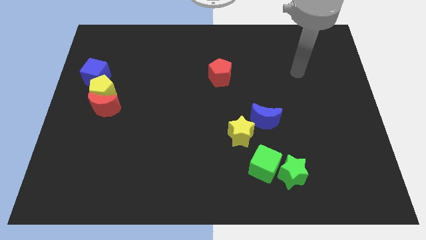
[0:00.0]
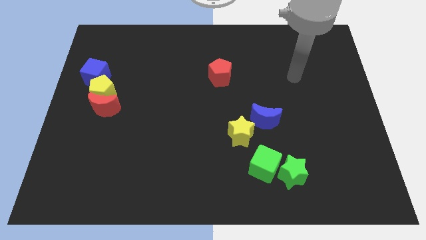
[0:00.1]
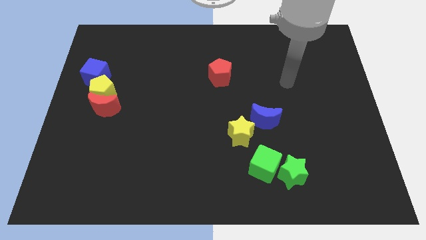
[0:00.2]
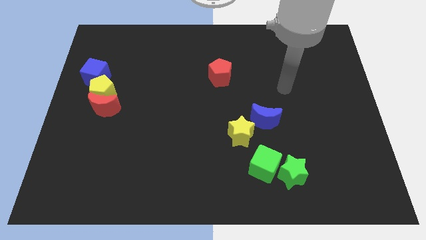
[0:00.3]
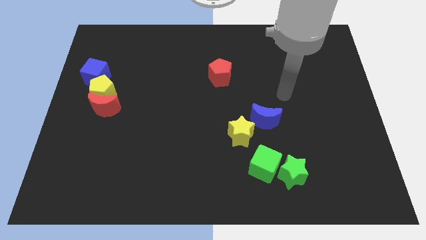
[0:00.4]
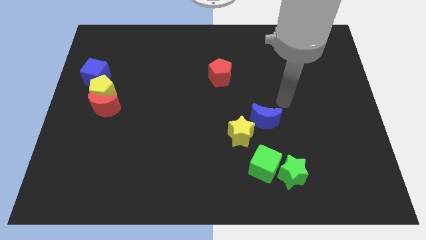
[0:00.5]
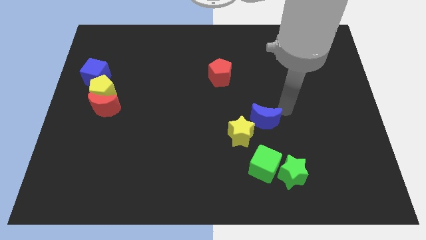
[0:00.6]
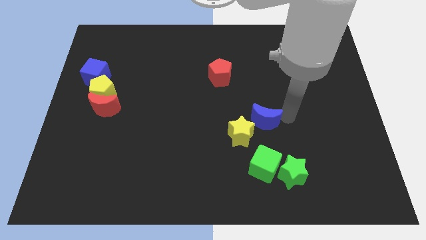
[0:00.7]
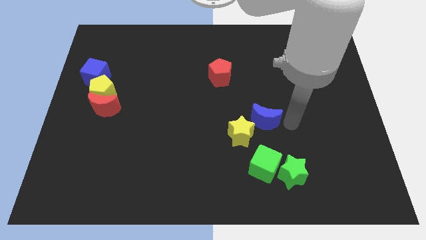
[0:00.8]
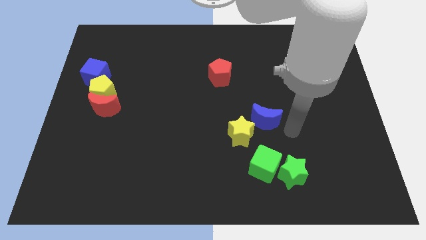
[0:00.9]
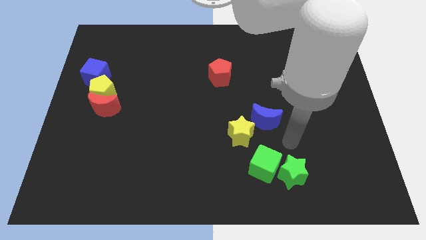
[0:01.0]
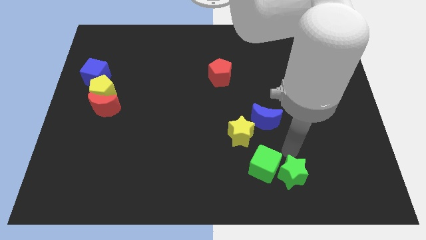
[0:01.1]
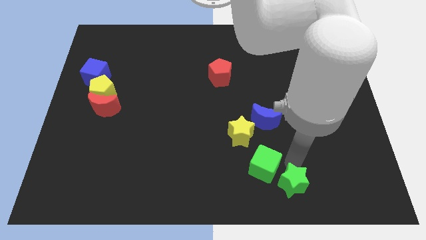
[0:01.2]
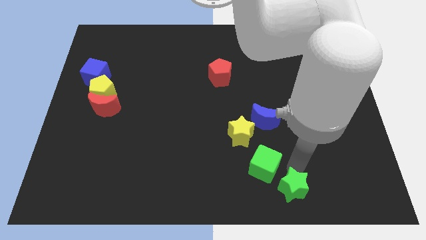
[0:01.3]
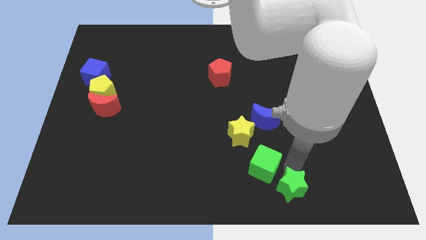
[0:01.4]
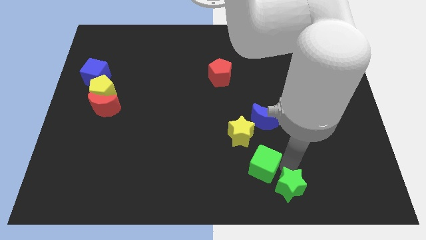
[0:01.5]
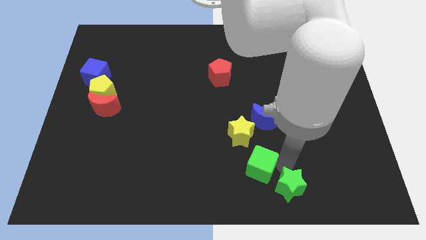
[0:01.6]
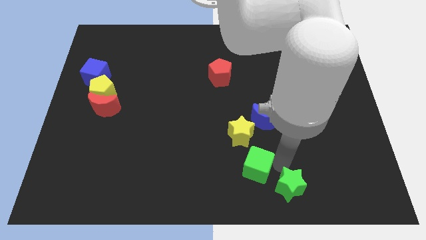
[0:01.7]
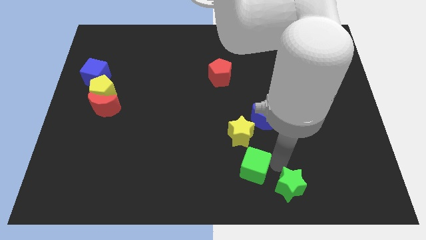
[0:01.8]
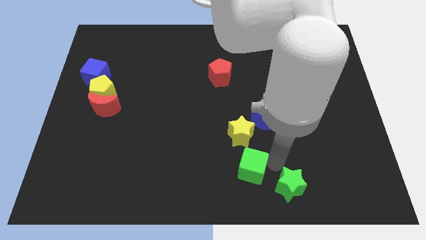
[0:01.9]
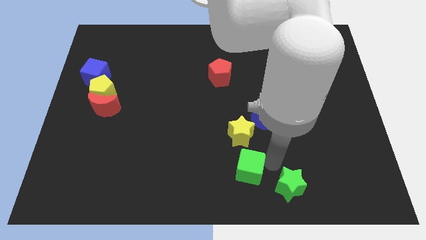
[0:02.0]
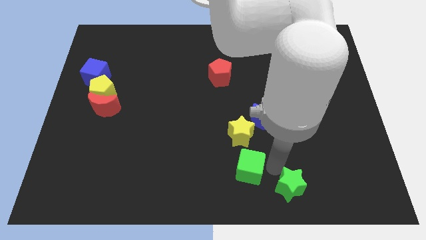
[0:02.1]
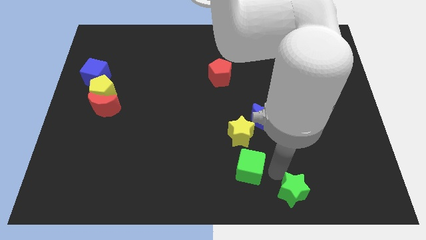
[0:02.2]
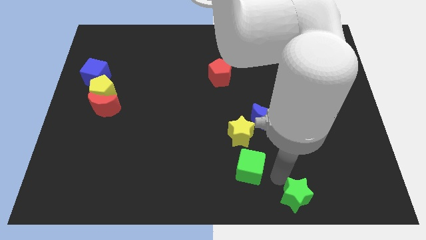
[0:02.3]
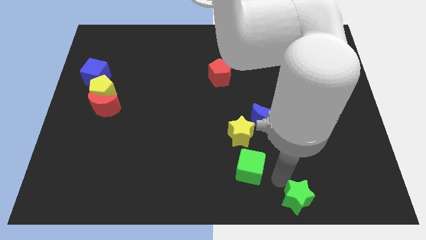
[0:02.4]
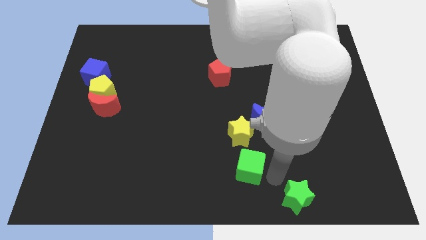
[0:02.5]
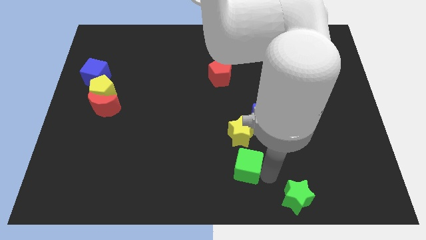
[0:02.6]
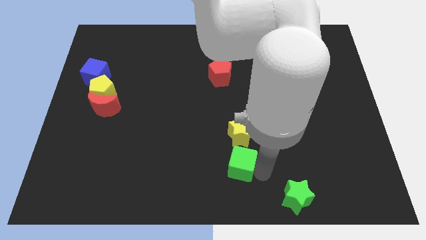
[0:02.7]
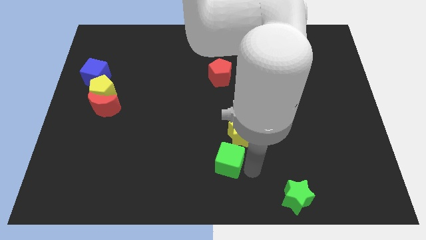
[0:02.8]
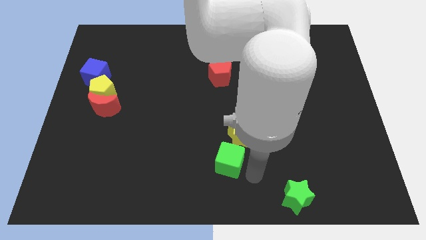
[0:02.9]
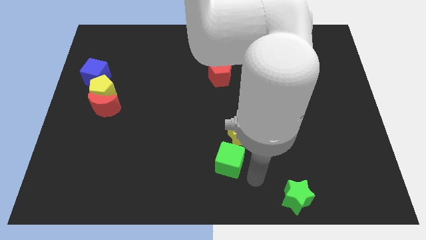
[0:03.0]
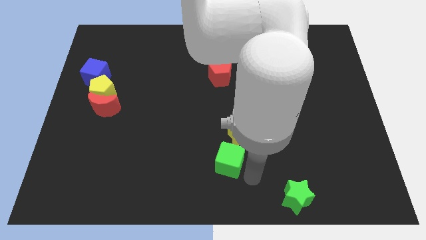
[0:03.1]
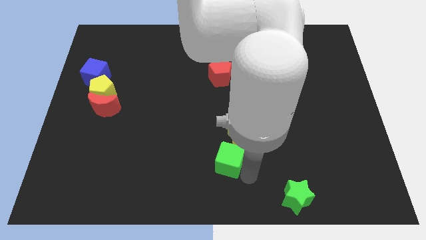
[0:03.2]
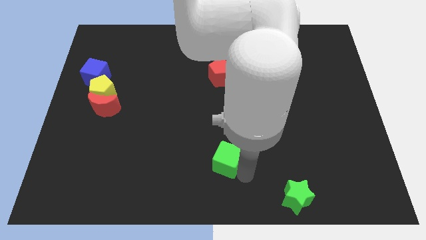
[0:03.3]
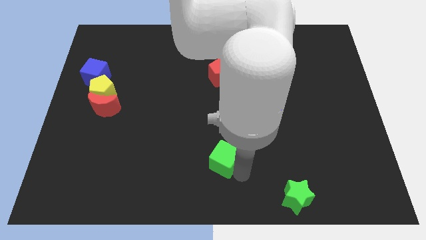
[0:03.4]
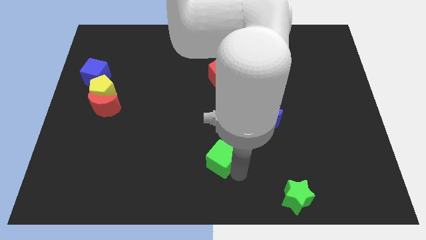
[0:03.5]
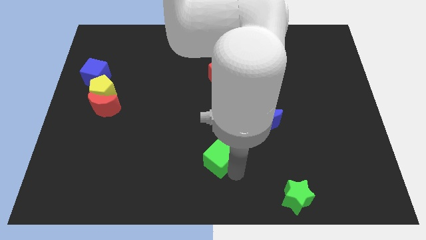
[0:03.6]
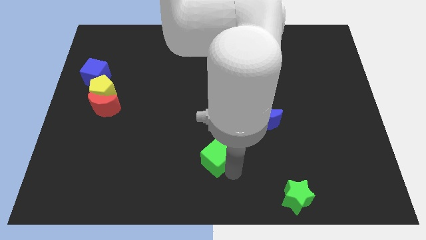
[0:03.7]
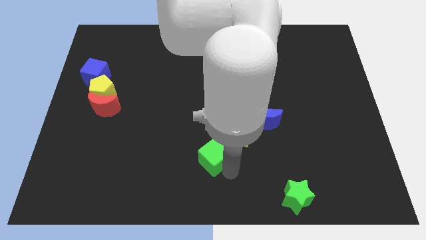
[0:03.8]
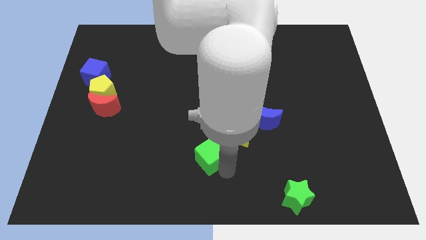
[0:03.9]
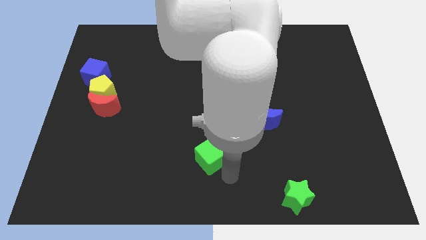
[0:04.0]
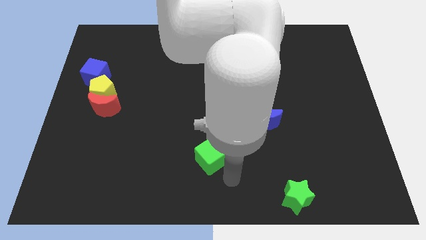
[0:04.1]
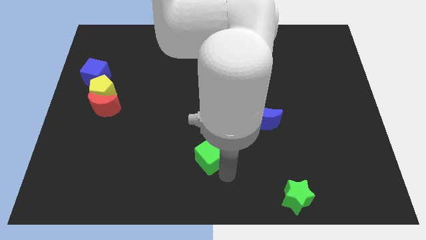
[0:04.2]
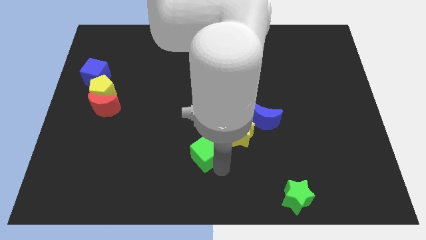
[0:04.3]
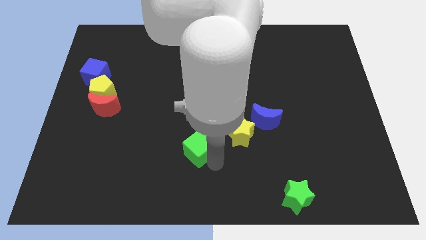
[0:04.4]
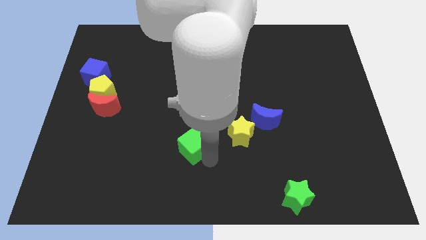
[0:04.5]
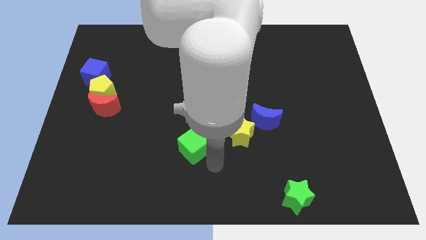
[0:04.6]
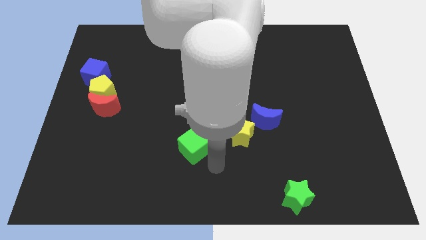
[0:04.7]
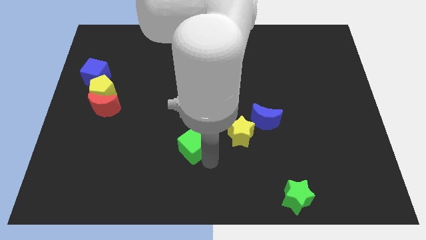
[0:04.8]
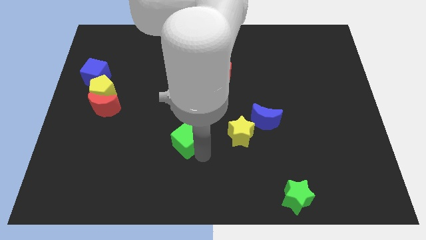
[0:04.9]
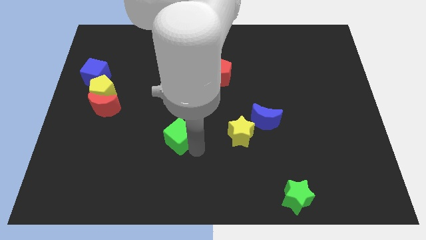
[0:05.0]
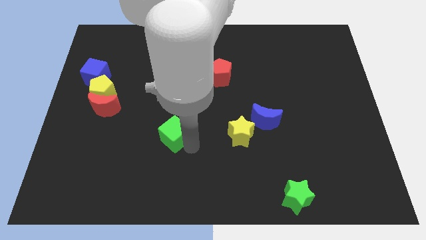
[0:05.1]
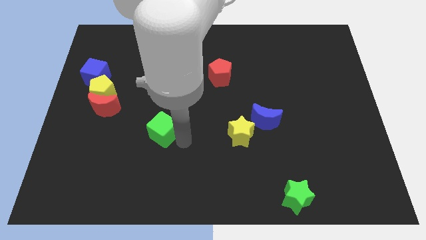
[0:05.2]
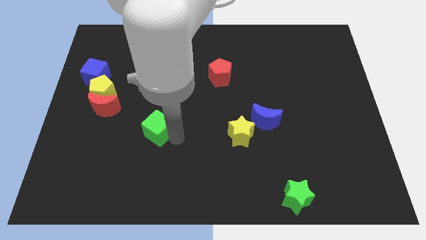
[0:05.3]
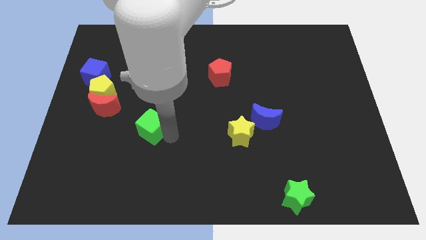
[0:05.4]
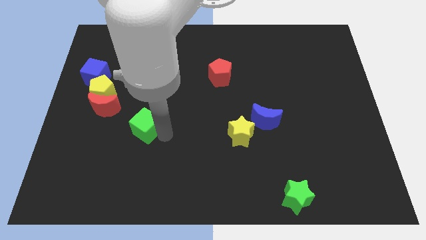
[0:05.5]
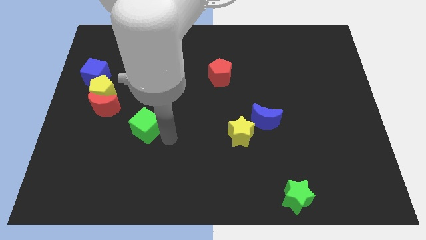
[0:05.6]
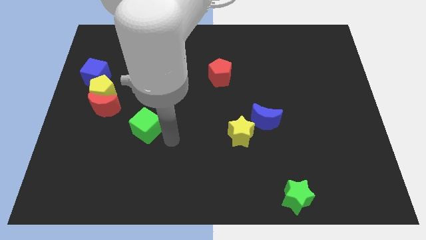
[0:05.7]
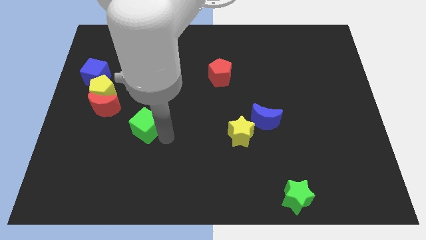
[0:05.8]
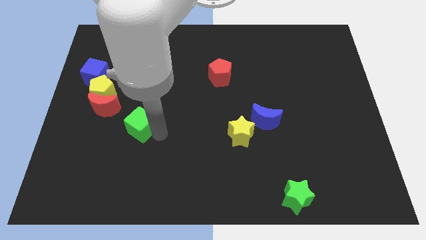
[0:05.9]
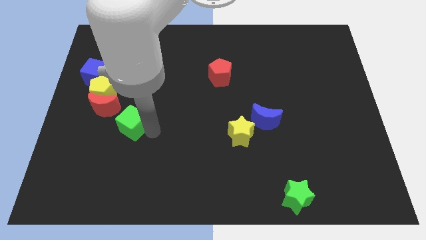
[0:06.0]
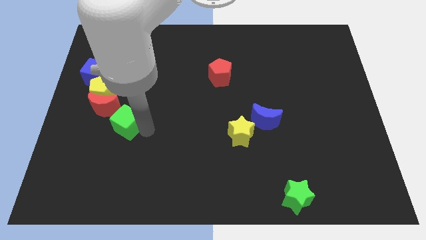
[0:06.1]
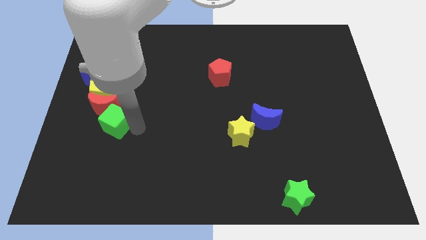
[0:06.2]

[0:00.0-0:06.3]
move the green cube towards the red moon

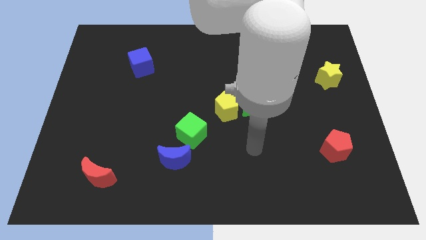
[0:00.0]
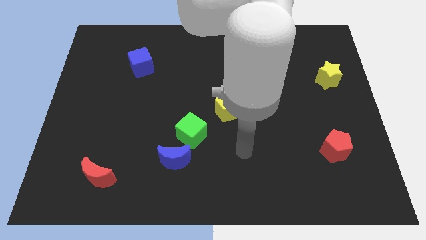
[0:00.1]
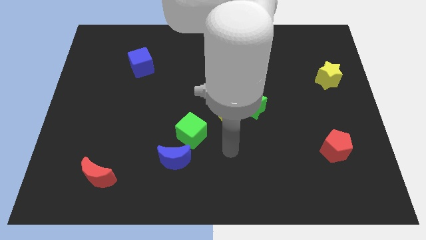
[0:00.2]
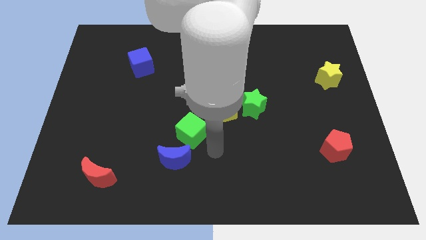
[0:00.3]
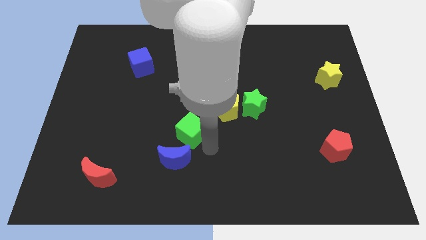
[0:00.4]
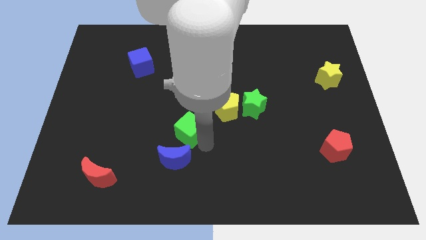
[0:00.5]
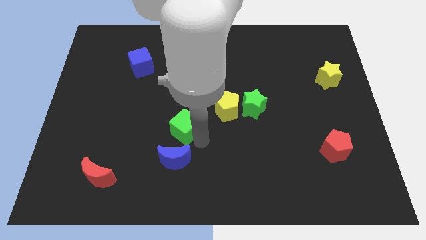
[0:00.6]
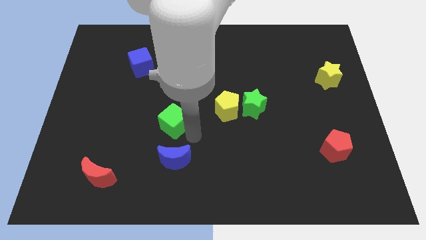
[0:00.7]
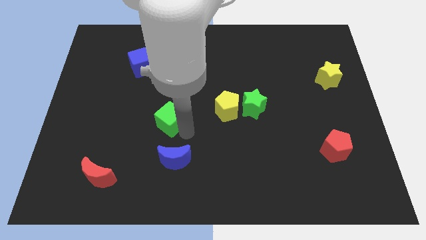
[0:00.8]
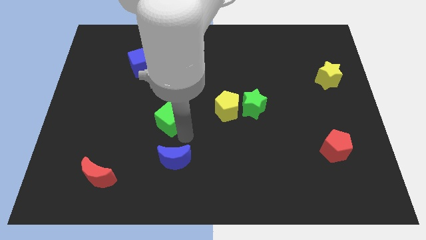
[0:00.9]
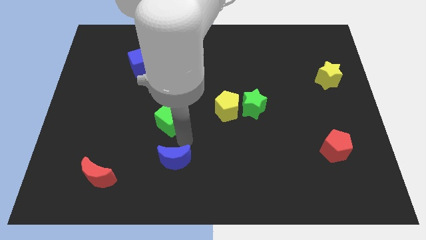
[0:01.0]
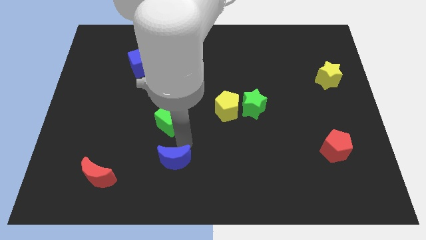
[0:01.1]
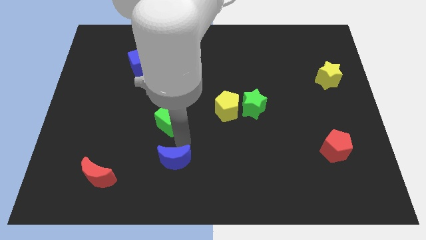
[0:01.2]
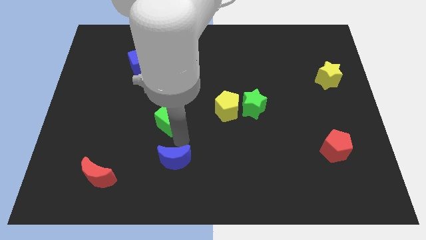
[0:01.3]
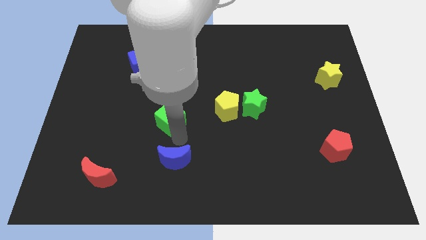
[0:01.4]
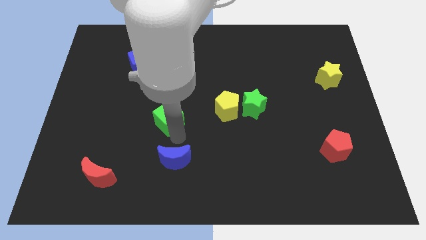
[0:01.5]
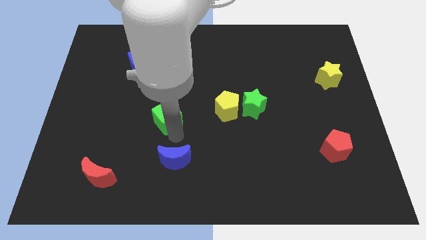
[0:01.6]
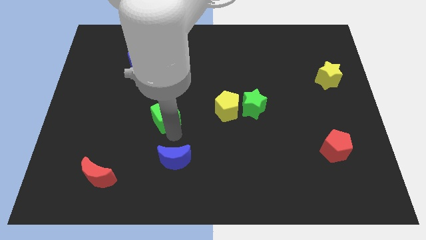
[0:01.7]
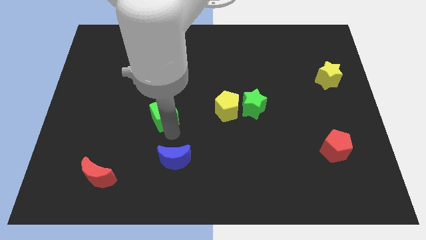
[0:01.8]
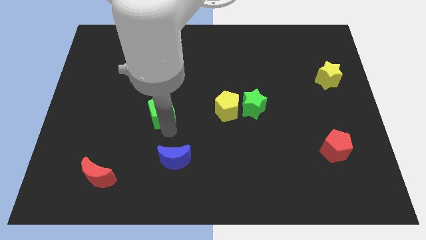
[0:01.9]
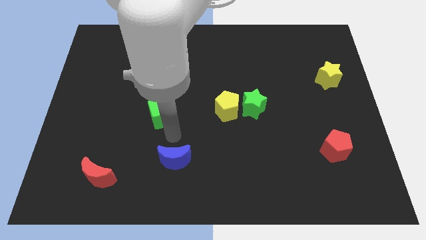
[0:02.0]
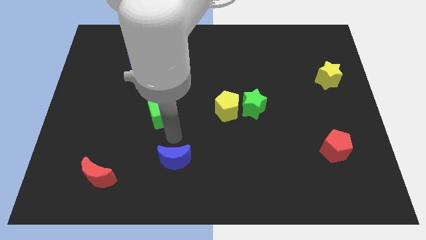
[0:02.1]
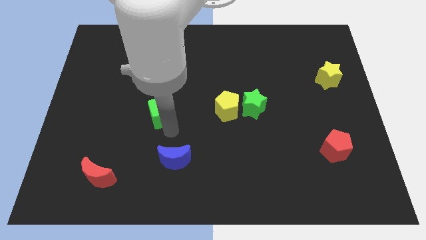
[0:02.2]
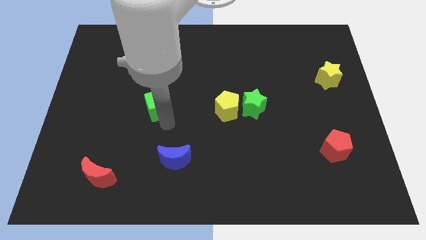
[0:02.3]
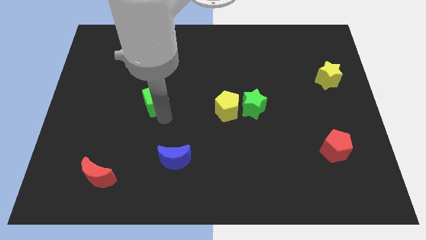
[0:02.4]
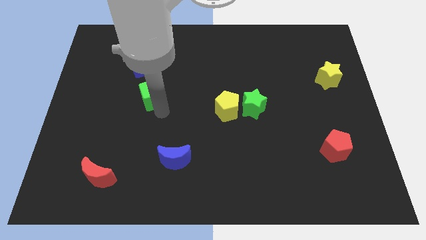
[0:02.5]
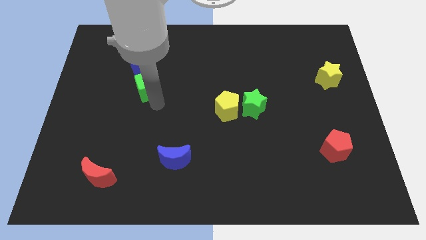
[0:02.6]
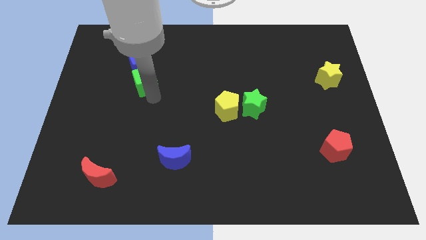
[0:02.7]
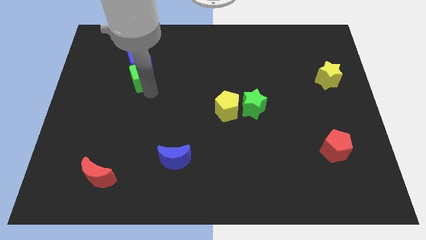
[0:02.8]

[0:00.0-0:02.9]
move the green cube close to the blue cube
